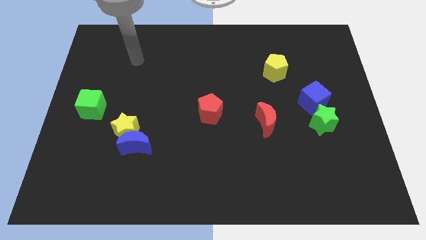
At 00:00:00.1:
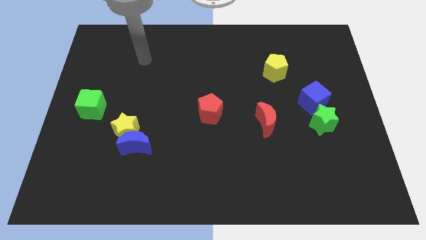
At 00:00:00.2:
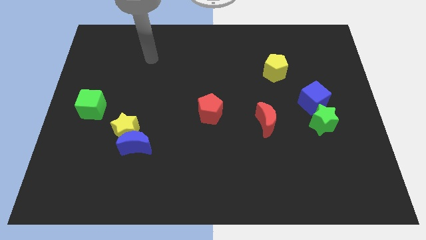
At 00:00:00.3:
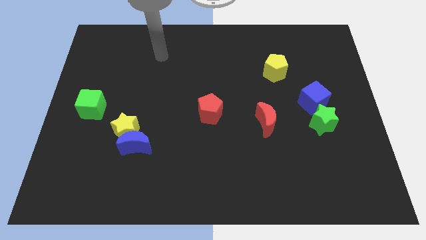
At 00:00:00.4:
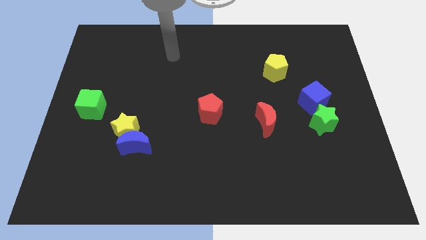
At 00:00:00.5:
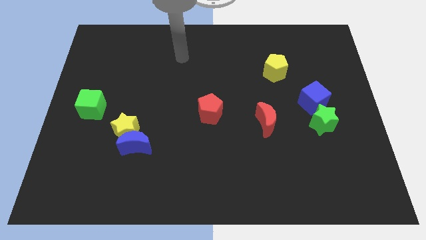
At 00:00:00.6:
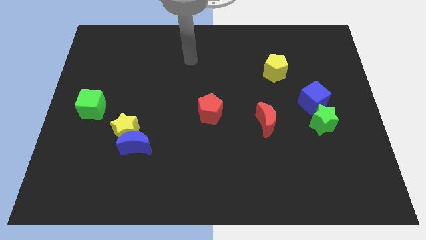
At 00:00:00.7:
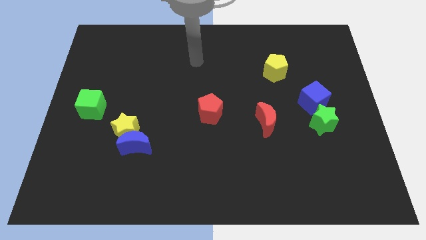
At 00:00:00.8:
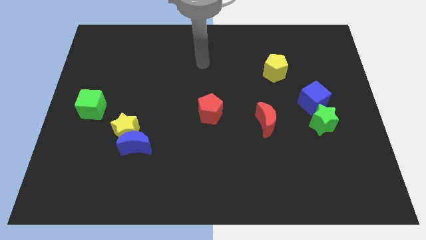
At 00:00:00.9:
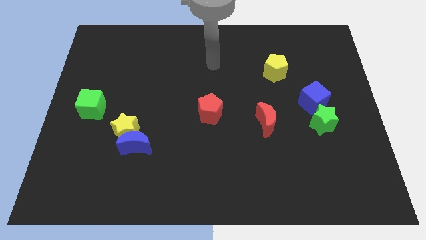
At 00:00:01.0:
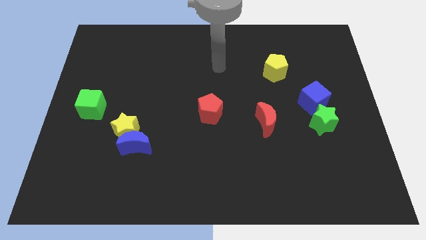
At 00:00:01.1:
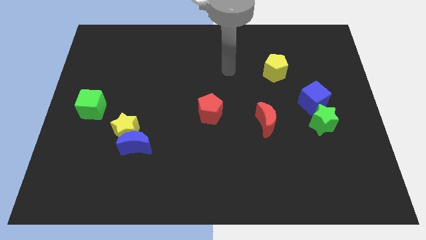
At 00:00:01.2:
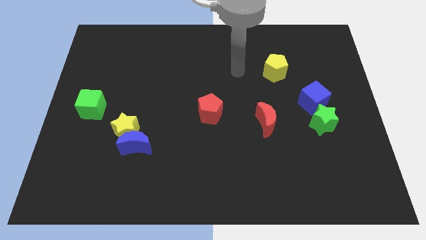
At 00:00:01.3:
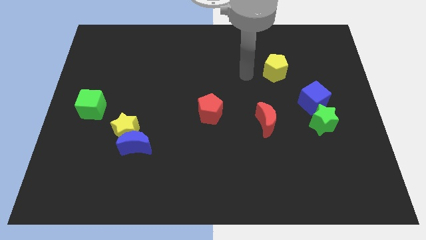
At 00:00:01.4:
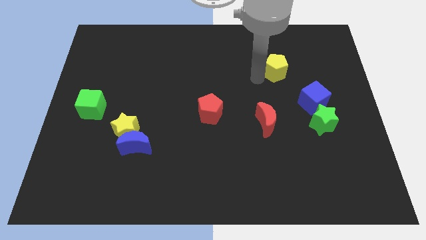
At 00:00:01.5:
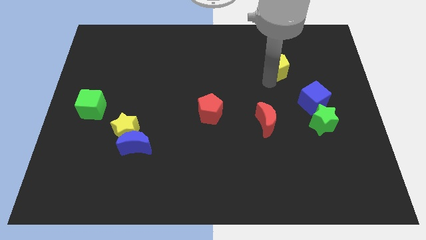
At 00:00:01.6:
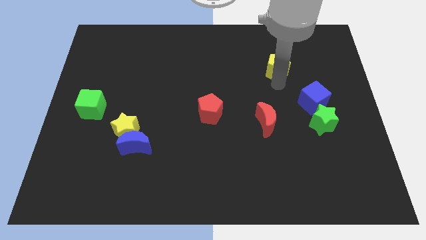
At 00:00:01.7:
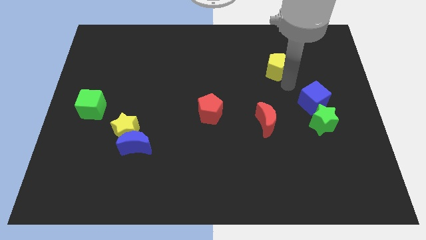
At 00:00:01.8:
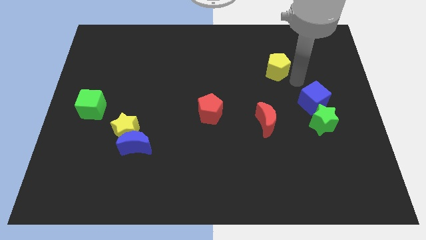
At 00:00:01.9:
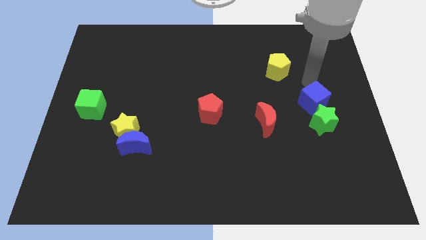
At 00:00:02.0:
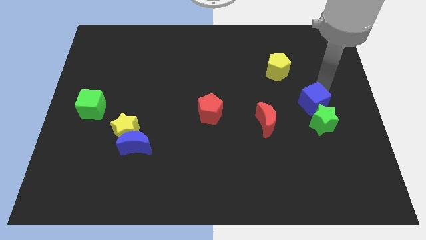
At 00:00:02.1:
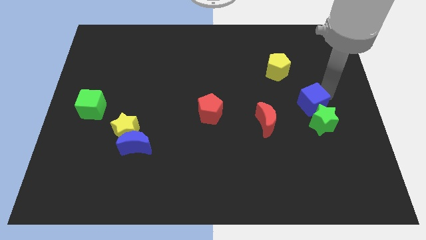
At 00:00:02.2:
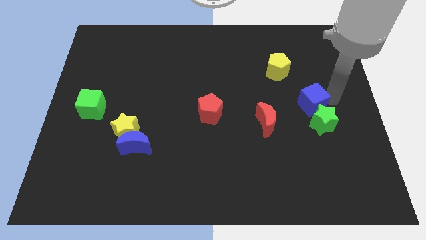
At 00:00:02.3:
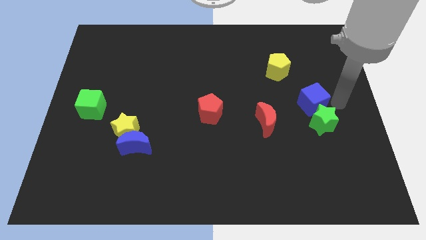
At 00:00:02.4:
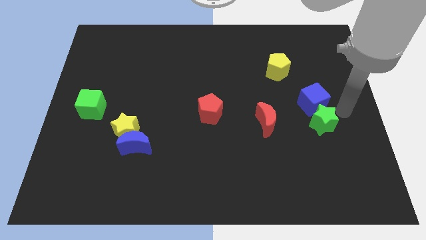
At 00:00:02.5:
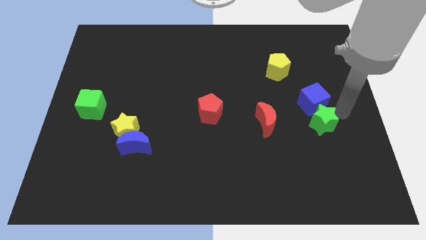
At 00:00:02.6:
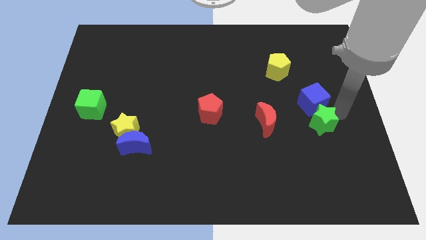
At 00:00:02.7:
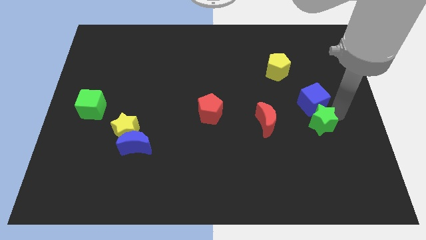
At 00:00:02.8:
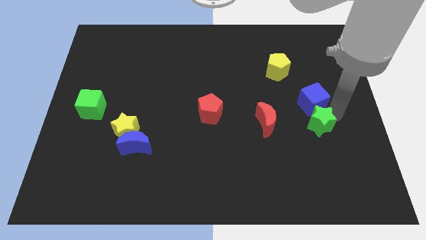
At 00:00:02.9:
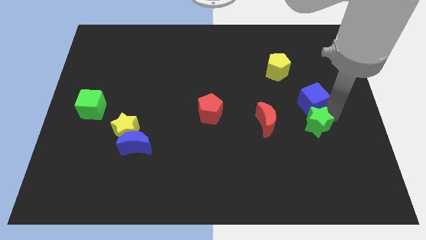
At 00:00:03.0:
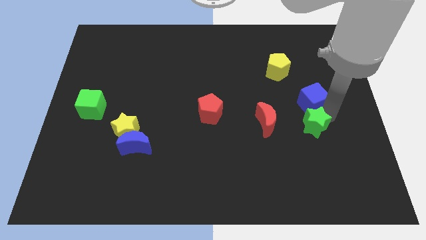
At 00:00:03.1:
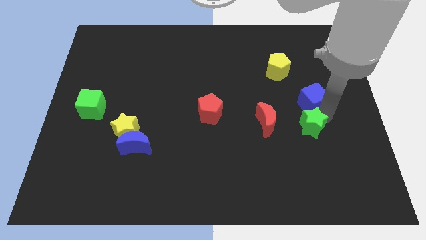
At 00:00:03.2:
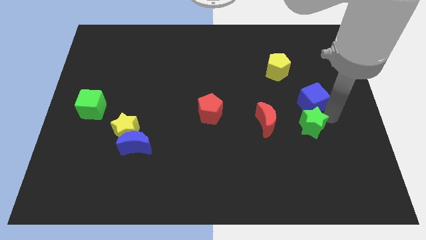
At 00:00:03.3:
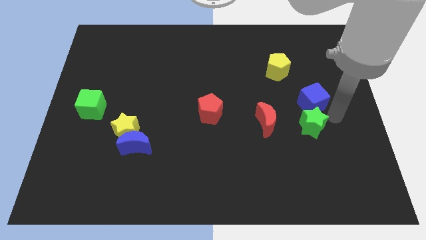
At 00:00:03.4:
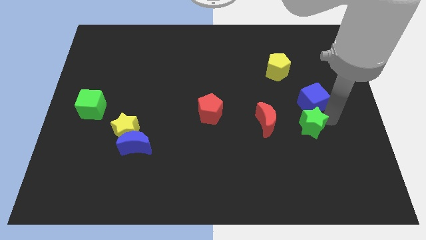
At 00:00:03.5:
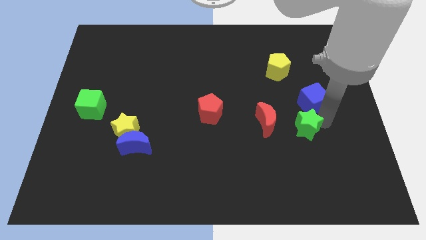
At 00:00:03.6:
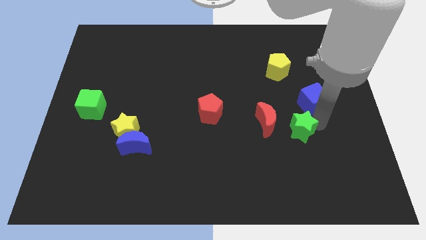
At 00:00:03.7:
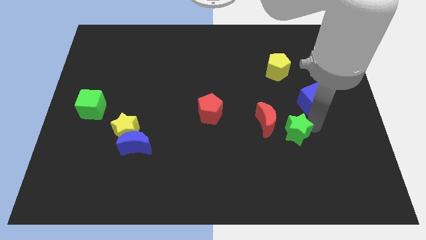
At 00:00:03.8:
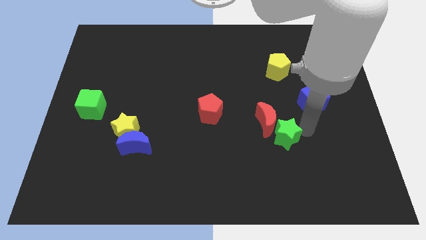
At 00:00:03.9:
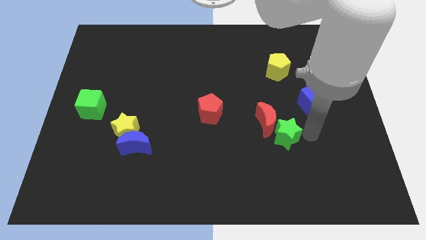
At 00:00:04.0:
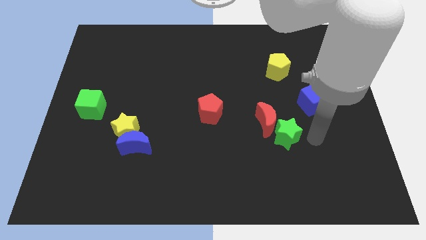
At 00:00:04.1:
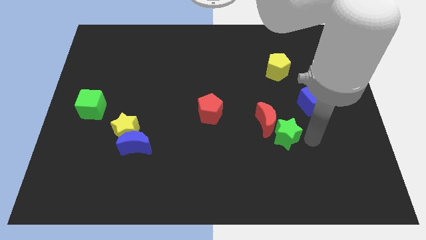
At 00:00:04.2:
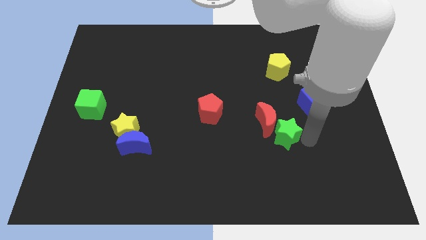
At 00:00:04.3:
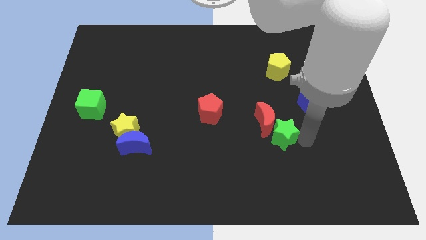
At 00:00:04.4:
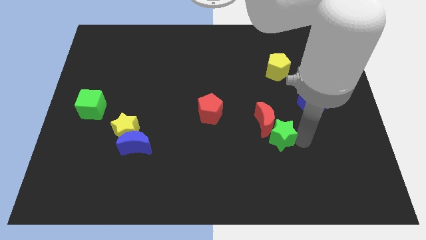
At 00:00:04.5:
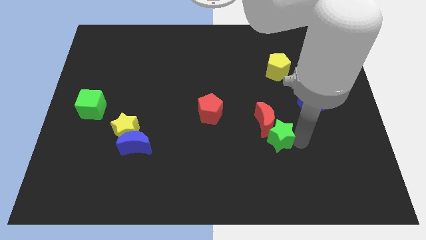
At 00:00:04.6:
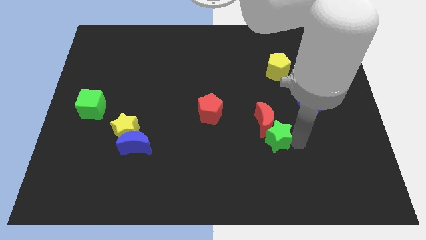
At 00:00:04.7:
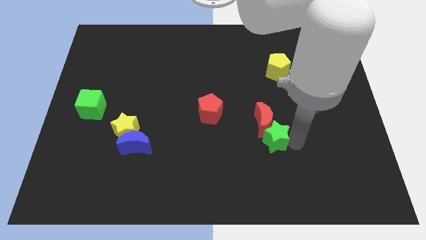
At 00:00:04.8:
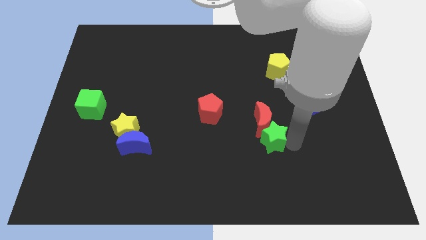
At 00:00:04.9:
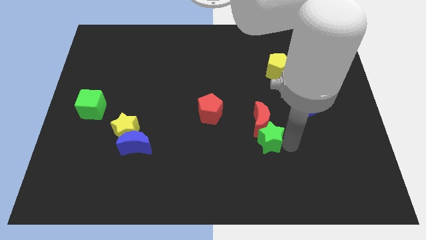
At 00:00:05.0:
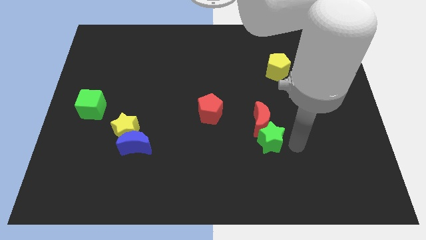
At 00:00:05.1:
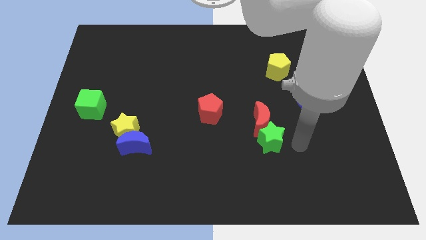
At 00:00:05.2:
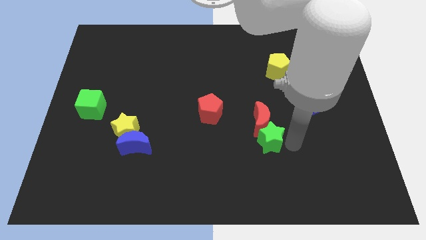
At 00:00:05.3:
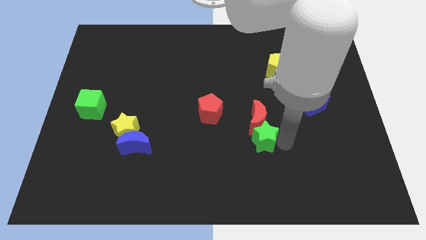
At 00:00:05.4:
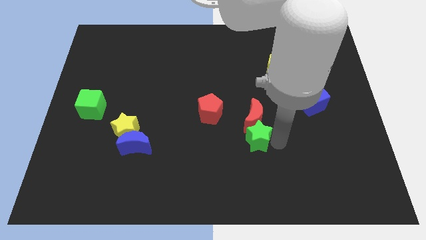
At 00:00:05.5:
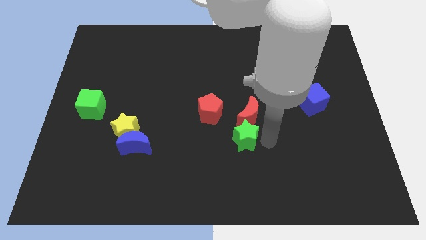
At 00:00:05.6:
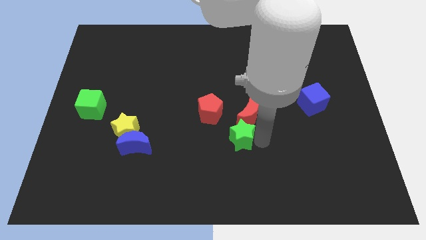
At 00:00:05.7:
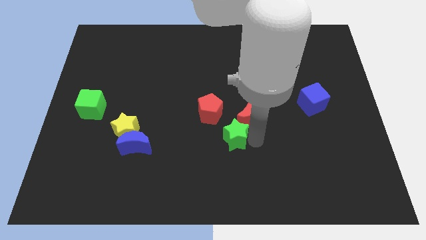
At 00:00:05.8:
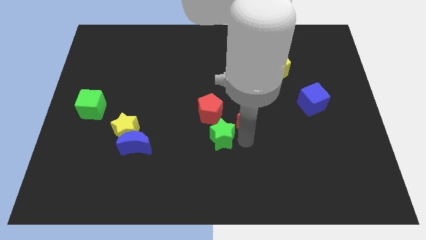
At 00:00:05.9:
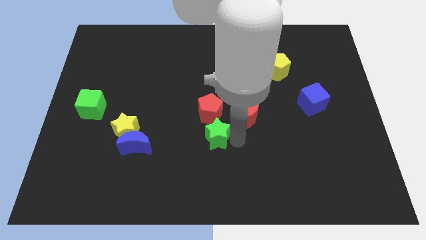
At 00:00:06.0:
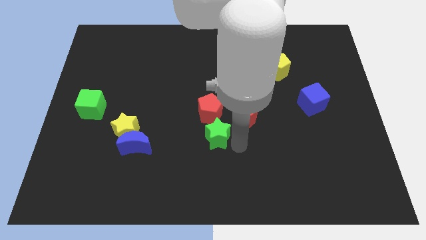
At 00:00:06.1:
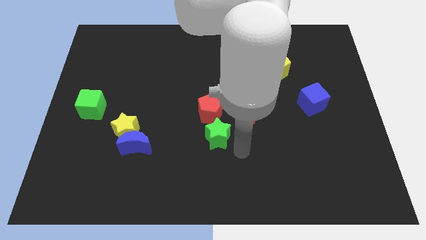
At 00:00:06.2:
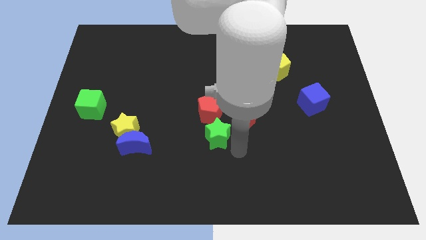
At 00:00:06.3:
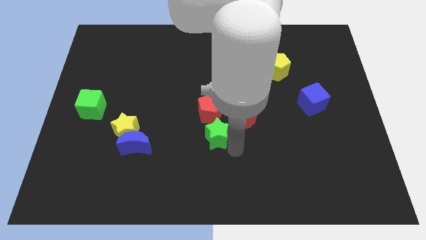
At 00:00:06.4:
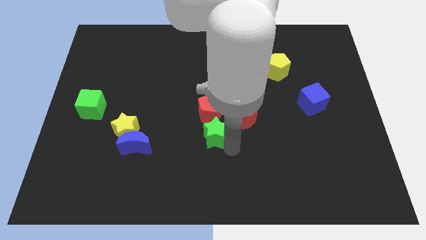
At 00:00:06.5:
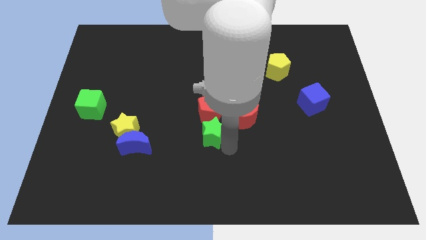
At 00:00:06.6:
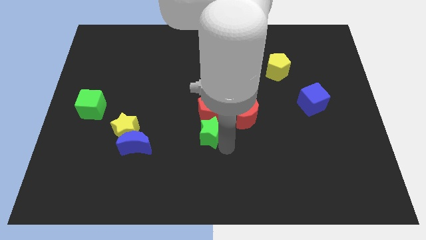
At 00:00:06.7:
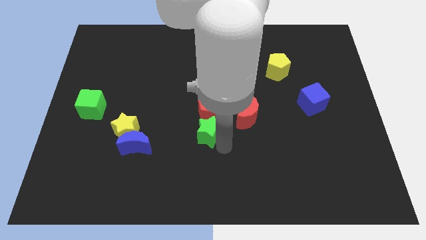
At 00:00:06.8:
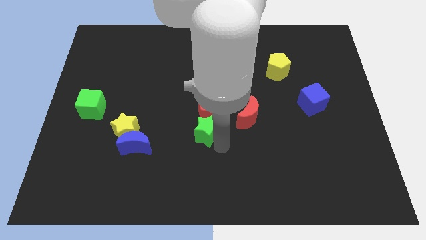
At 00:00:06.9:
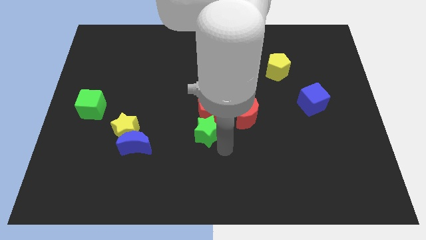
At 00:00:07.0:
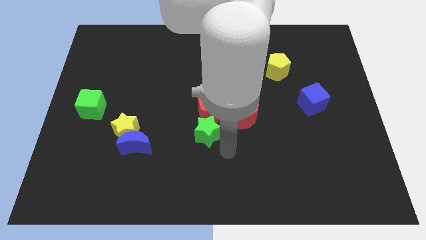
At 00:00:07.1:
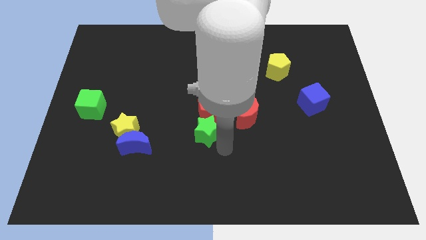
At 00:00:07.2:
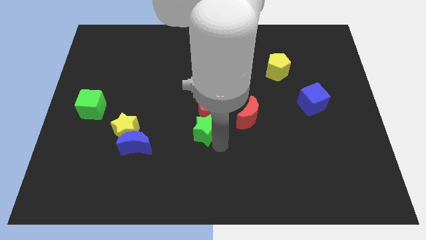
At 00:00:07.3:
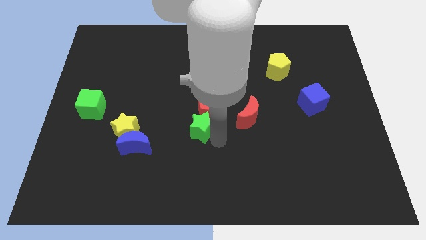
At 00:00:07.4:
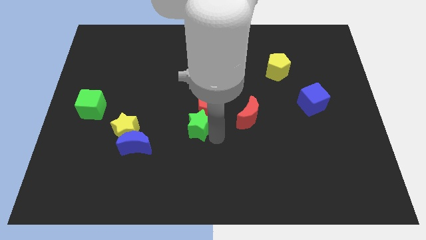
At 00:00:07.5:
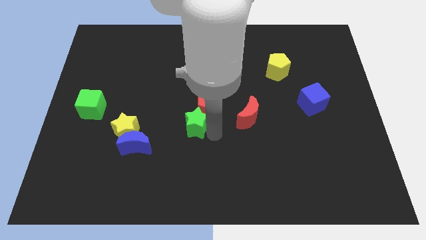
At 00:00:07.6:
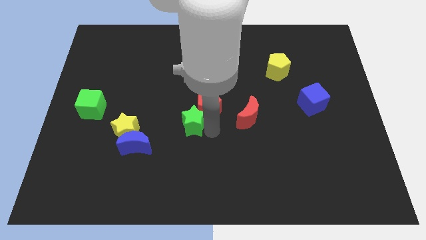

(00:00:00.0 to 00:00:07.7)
put the green star left of the red pentagon
